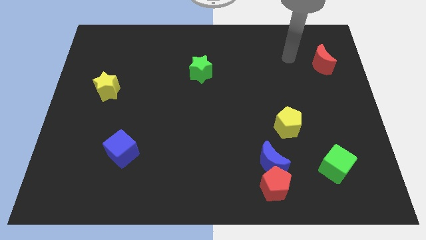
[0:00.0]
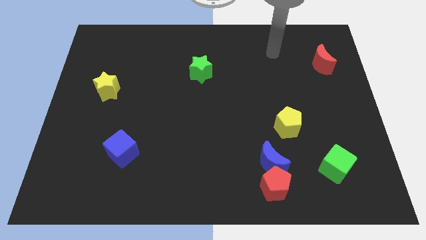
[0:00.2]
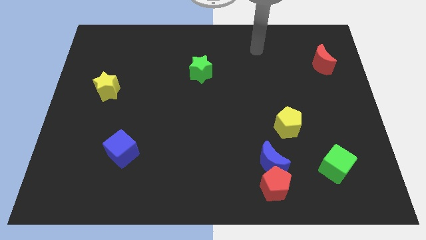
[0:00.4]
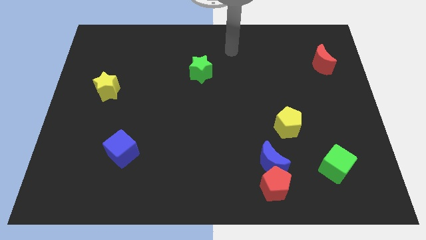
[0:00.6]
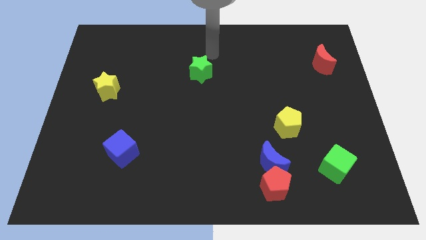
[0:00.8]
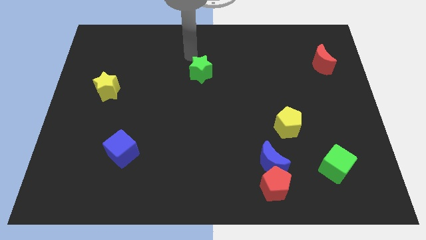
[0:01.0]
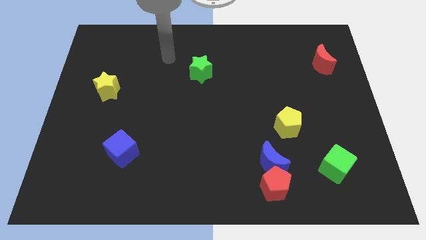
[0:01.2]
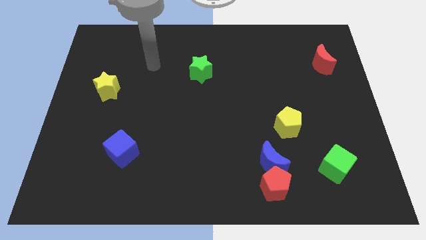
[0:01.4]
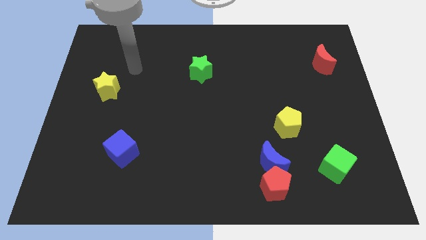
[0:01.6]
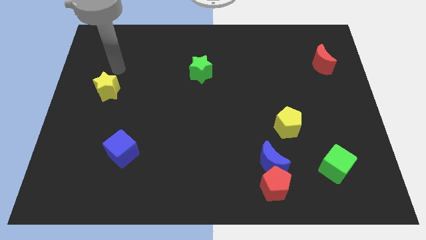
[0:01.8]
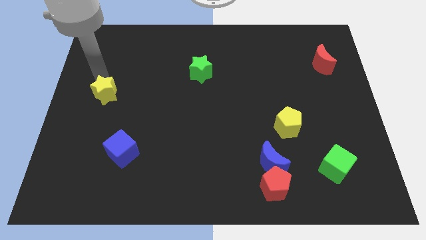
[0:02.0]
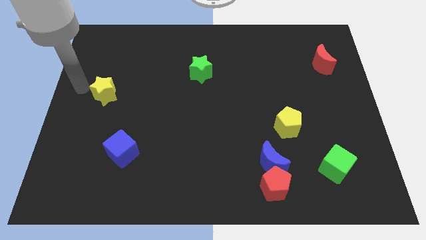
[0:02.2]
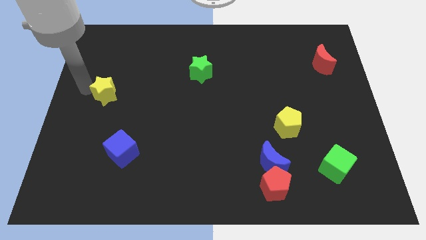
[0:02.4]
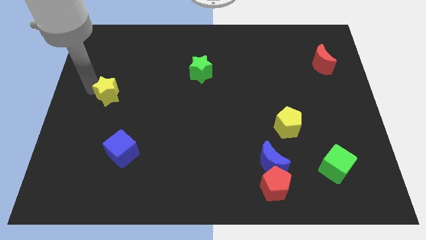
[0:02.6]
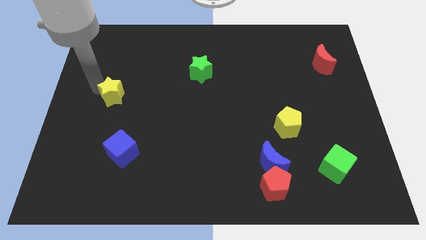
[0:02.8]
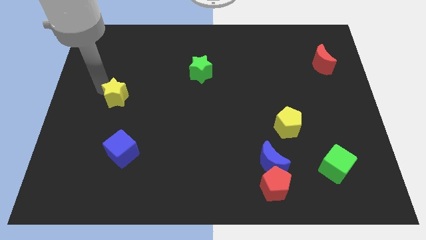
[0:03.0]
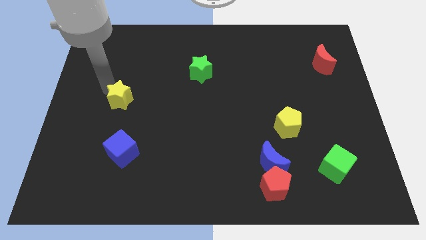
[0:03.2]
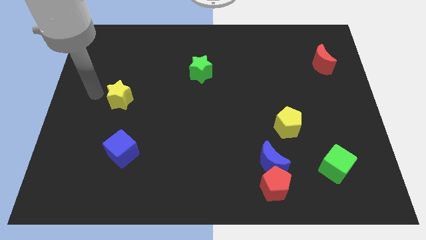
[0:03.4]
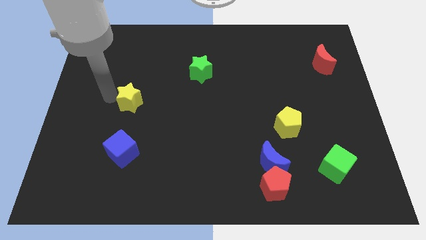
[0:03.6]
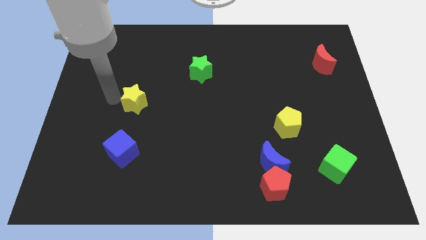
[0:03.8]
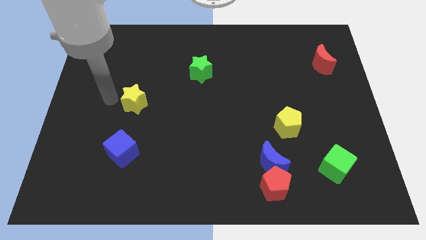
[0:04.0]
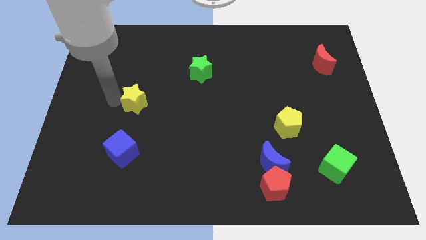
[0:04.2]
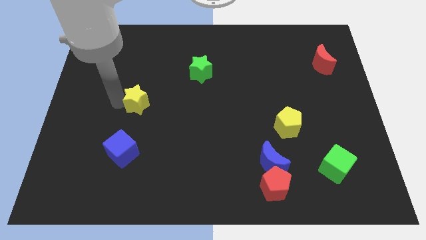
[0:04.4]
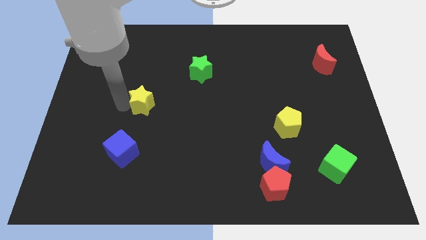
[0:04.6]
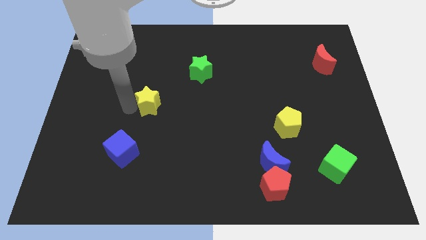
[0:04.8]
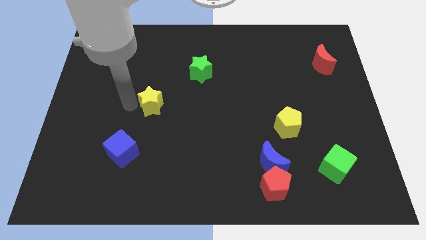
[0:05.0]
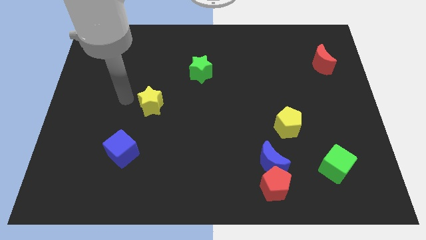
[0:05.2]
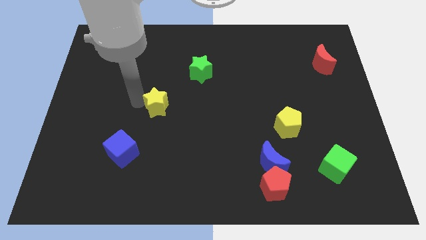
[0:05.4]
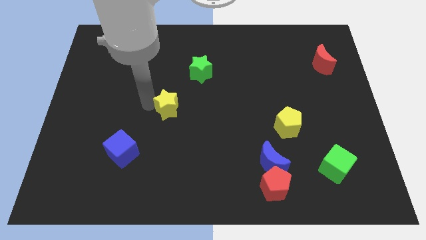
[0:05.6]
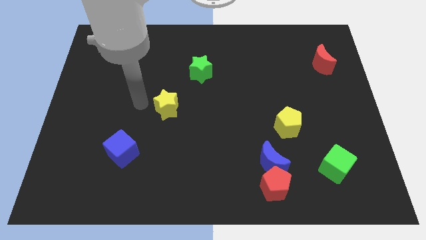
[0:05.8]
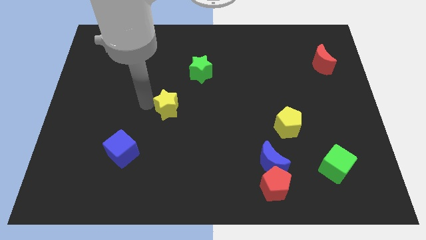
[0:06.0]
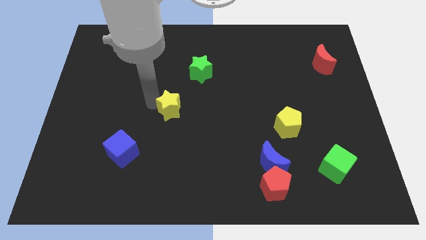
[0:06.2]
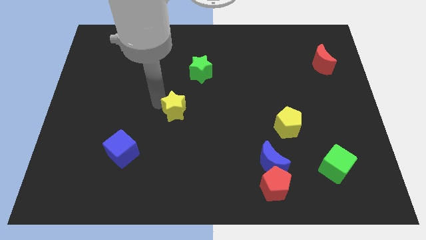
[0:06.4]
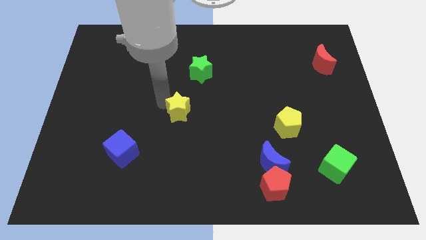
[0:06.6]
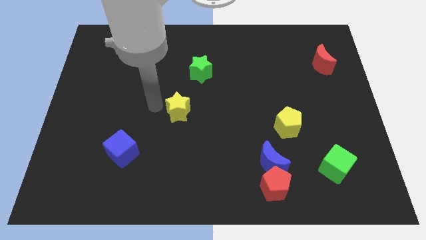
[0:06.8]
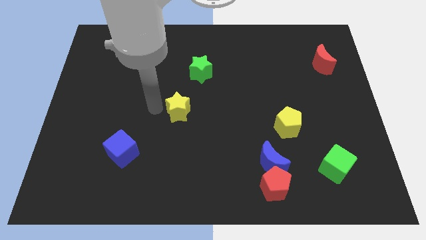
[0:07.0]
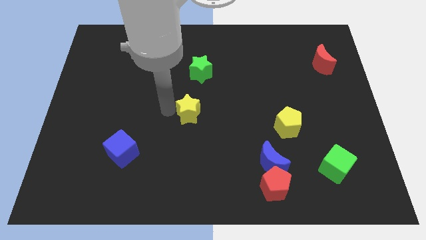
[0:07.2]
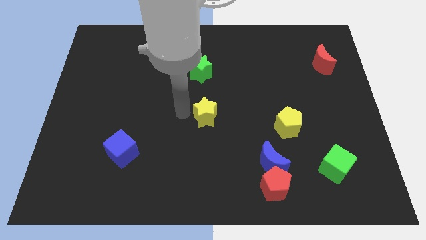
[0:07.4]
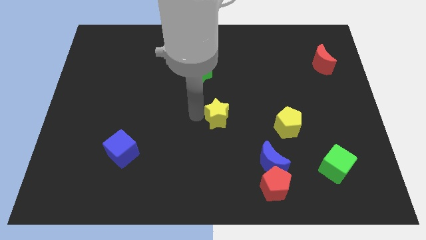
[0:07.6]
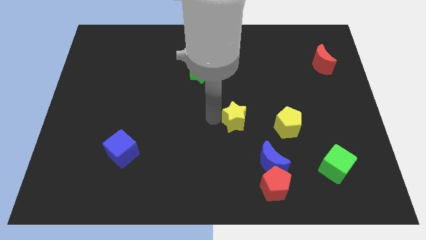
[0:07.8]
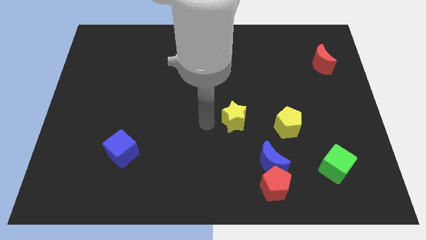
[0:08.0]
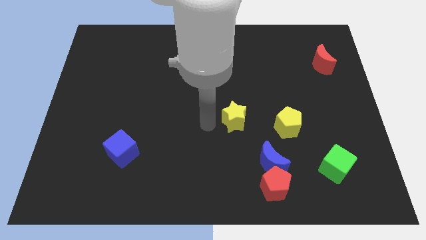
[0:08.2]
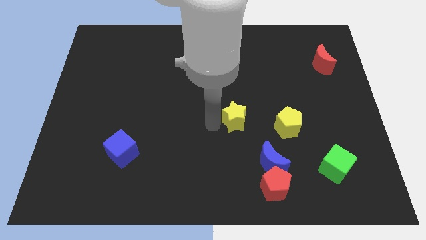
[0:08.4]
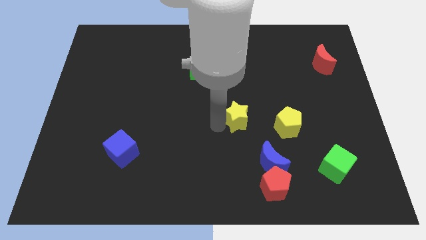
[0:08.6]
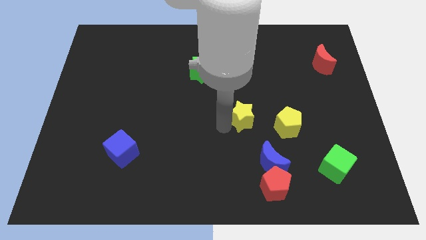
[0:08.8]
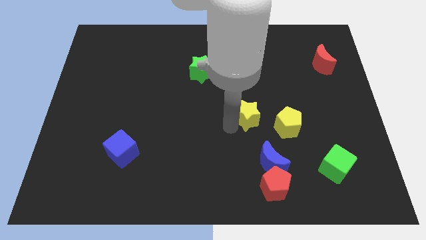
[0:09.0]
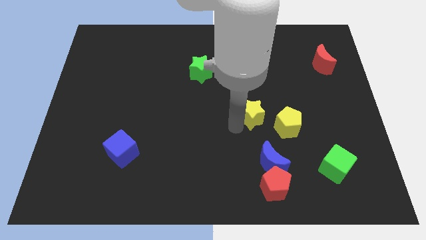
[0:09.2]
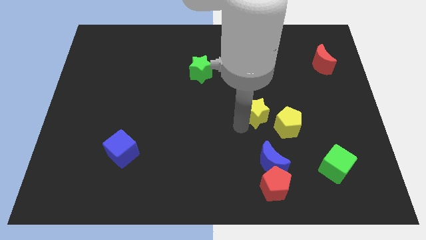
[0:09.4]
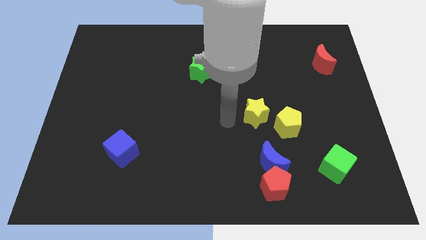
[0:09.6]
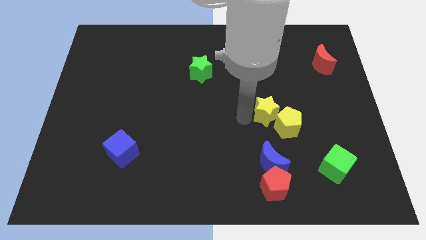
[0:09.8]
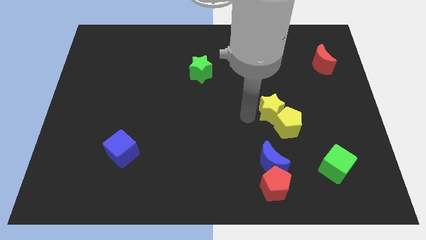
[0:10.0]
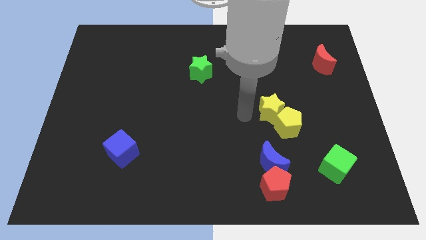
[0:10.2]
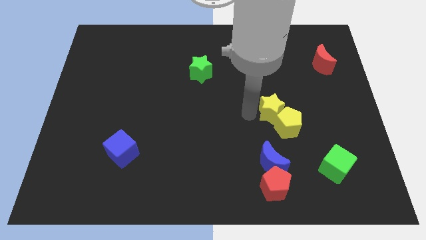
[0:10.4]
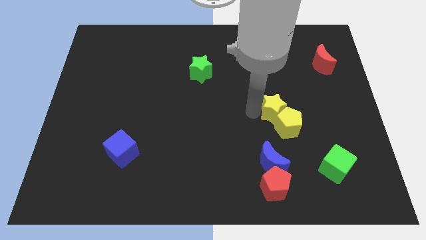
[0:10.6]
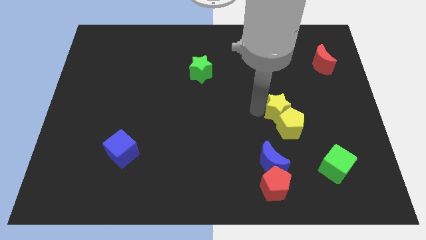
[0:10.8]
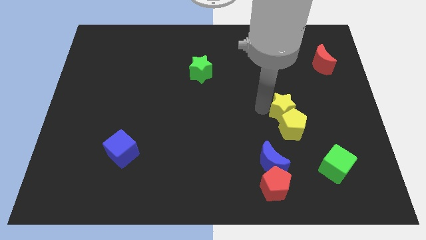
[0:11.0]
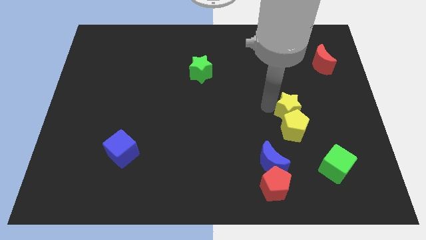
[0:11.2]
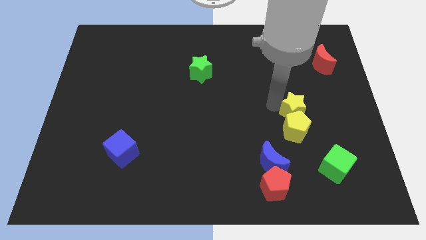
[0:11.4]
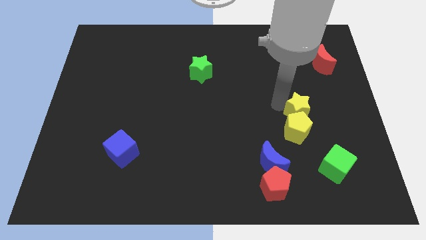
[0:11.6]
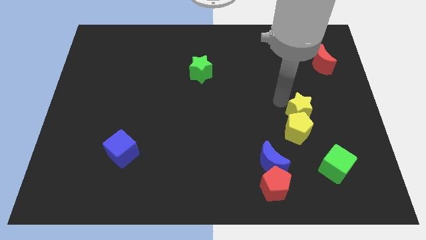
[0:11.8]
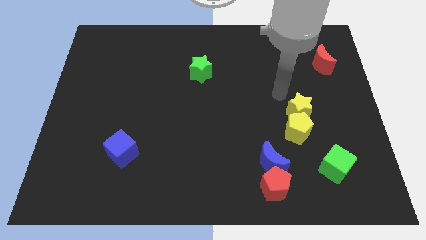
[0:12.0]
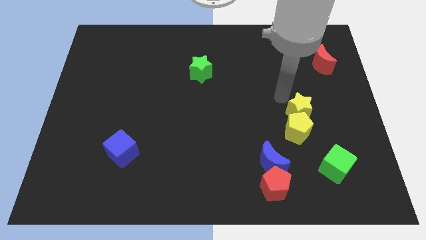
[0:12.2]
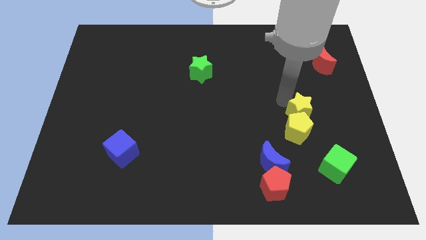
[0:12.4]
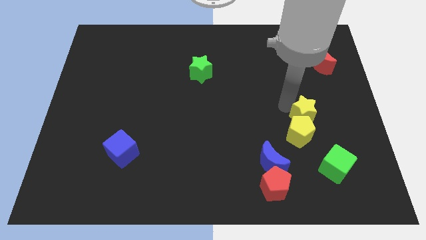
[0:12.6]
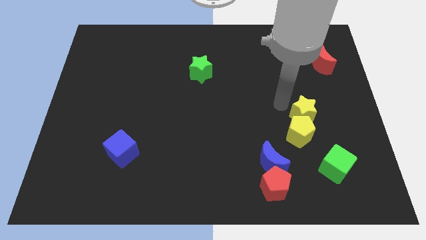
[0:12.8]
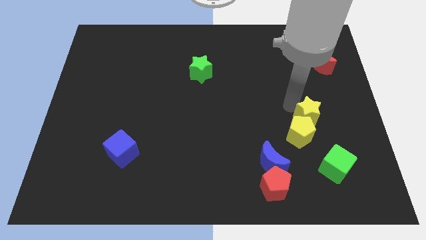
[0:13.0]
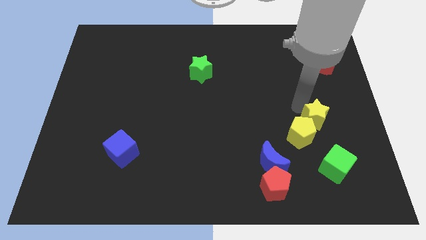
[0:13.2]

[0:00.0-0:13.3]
put the yellow star to the right of the yellow pentagon

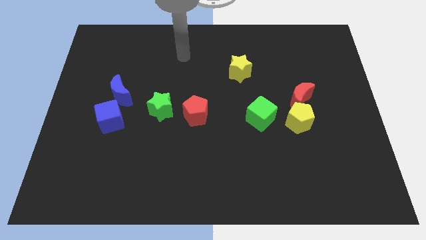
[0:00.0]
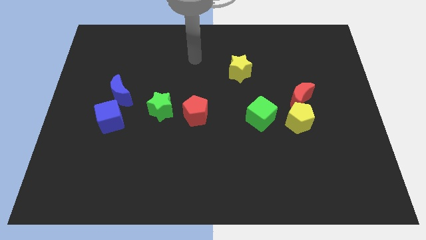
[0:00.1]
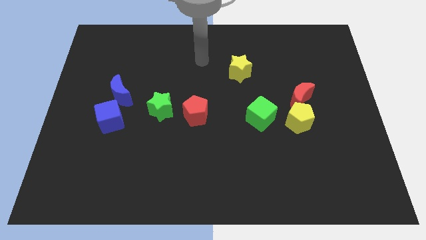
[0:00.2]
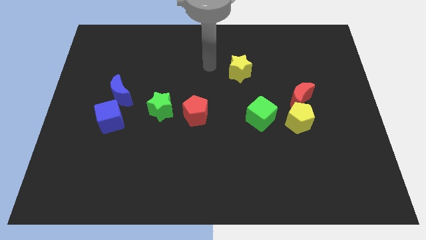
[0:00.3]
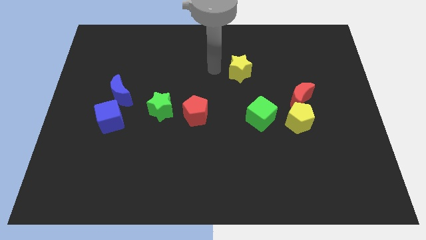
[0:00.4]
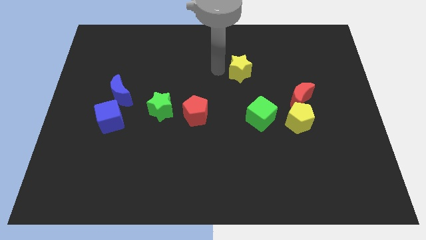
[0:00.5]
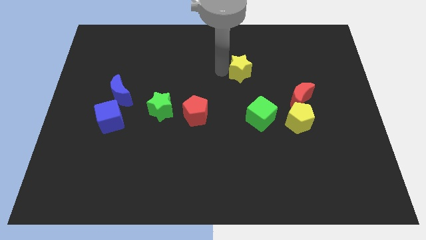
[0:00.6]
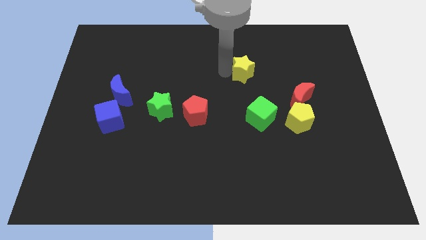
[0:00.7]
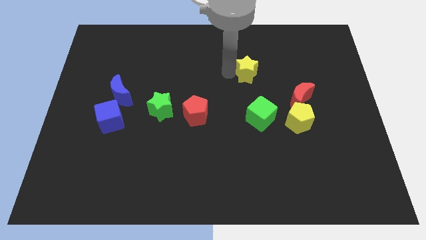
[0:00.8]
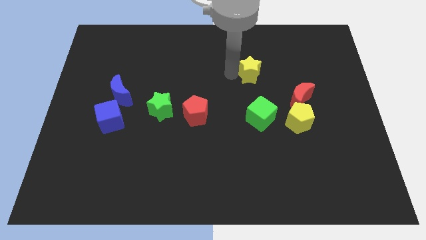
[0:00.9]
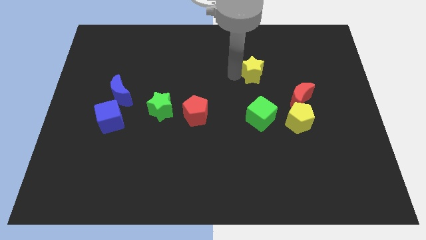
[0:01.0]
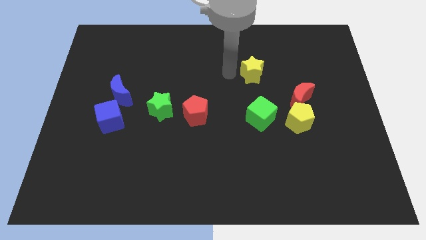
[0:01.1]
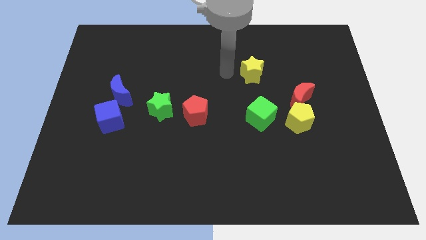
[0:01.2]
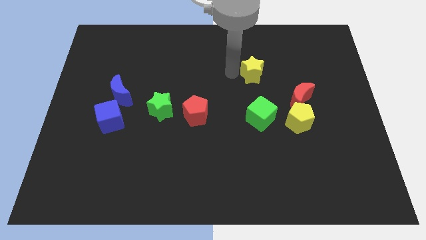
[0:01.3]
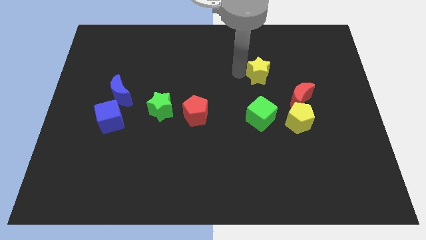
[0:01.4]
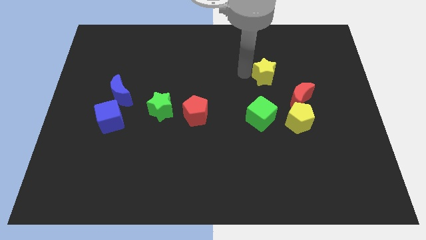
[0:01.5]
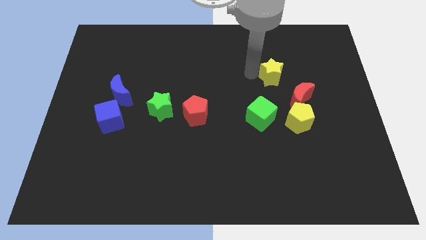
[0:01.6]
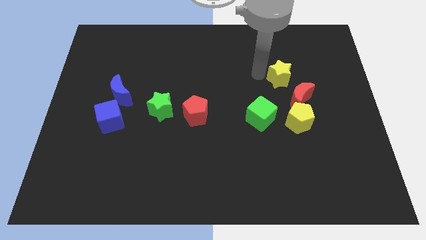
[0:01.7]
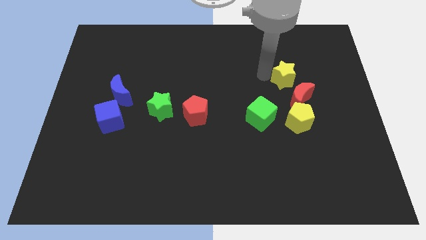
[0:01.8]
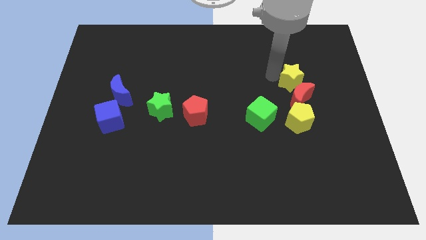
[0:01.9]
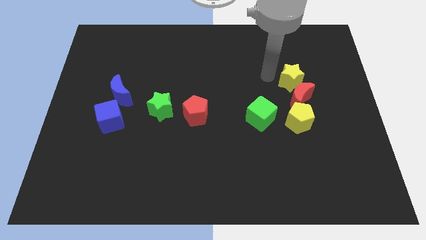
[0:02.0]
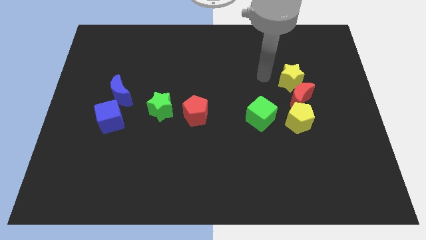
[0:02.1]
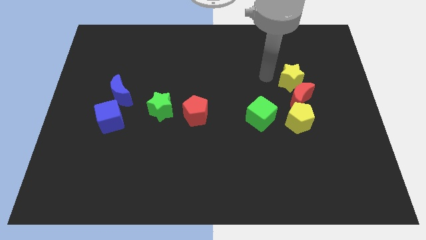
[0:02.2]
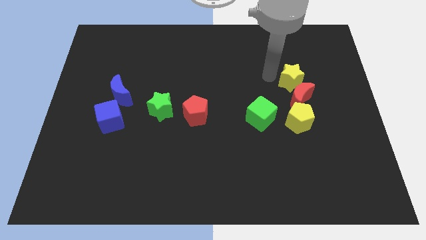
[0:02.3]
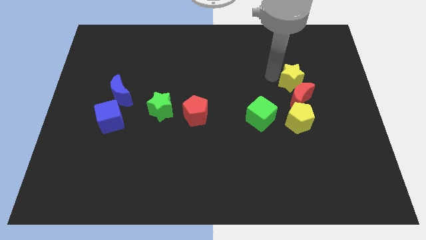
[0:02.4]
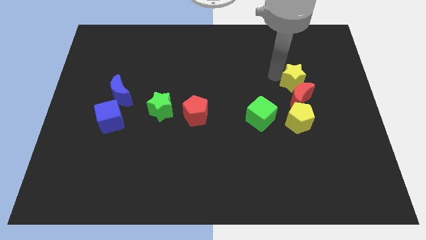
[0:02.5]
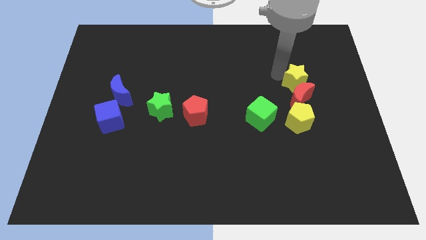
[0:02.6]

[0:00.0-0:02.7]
put the yellow star diagonally up and to the right of the red moon
